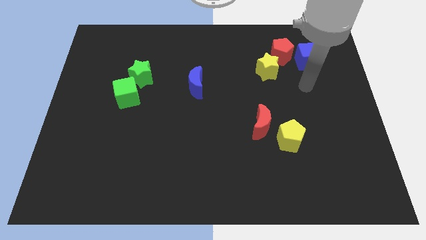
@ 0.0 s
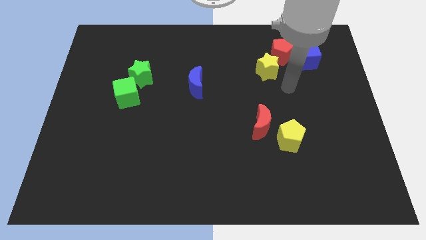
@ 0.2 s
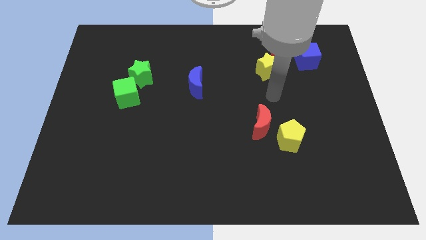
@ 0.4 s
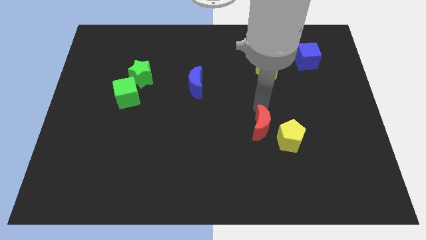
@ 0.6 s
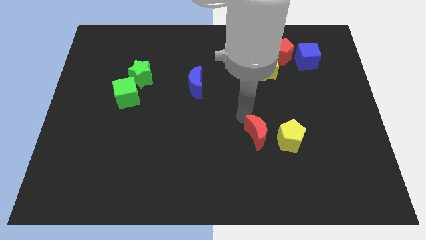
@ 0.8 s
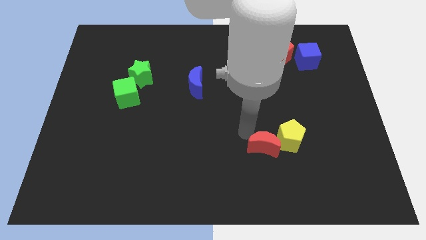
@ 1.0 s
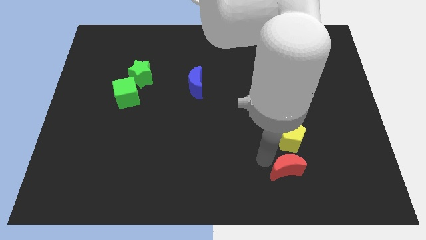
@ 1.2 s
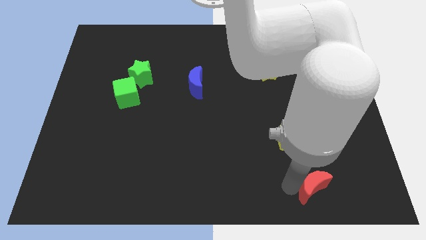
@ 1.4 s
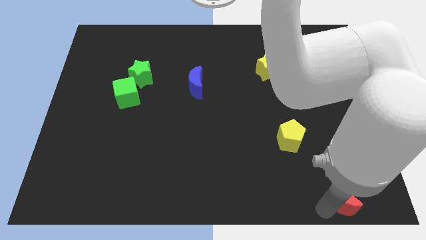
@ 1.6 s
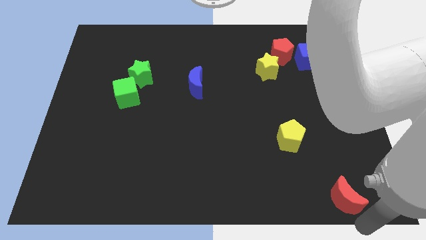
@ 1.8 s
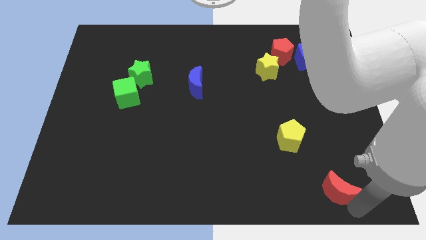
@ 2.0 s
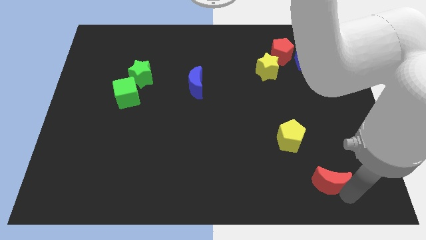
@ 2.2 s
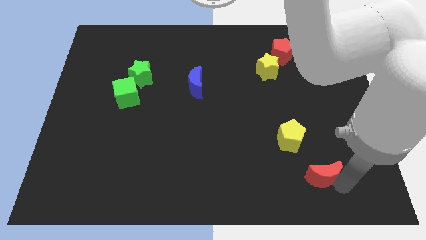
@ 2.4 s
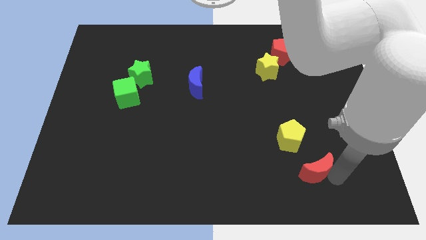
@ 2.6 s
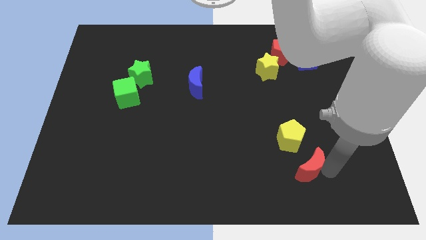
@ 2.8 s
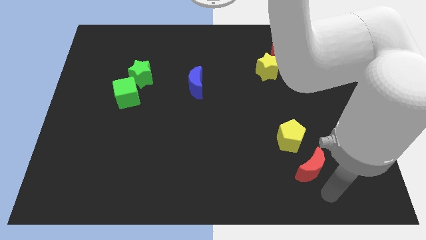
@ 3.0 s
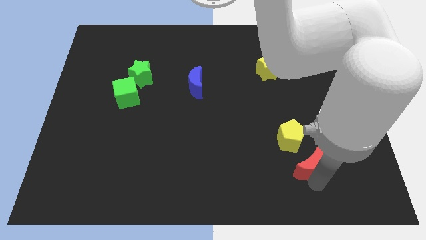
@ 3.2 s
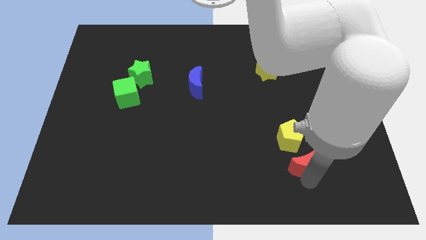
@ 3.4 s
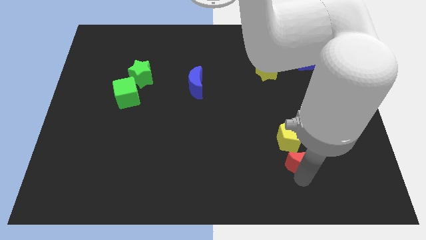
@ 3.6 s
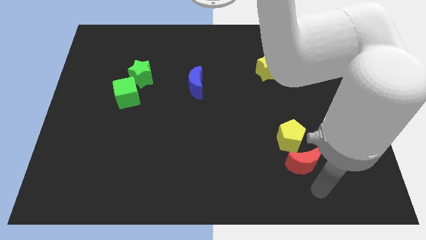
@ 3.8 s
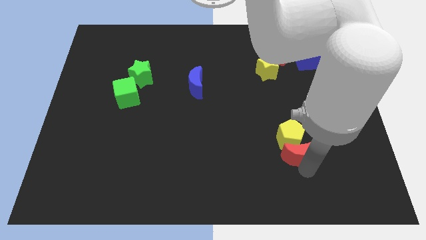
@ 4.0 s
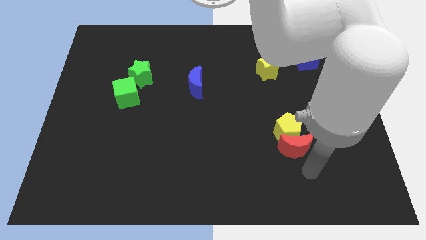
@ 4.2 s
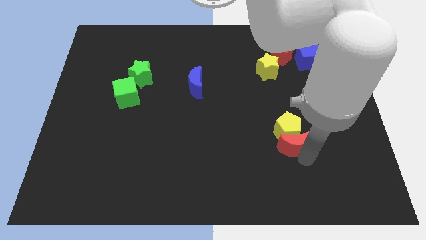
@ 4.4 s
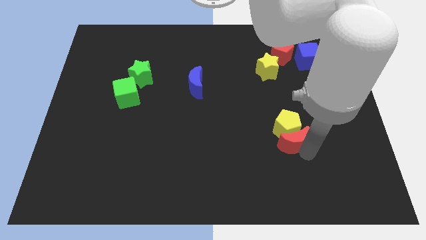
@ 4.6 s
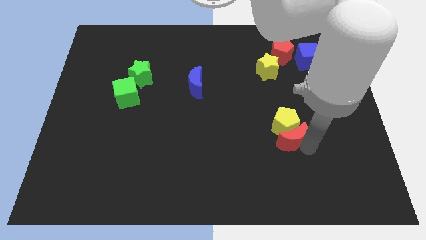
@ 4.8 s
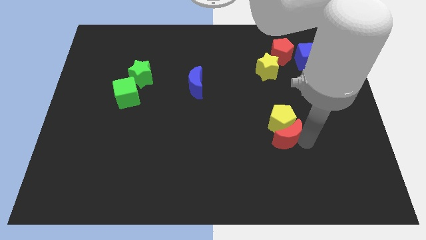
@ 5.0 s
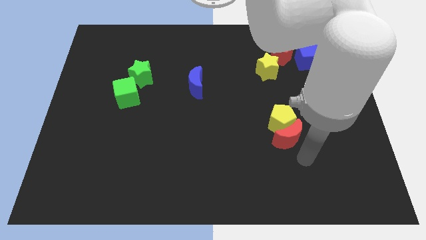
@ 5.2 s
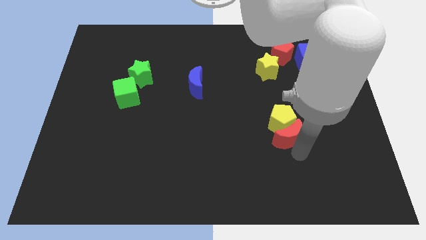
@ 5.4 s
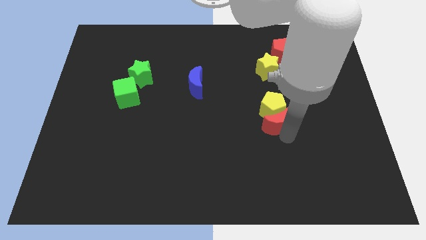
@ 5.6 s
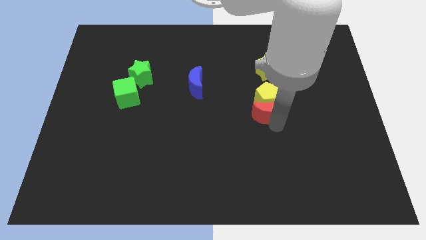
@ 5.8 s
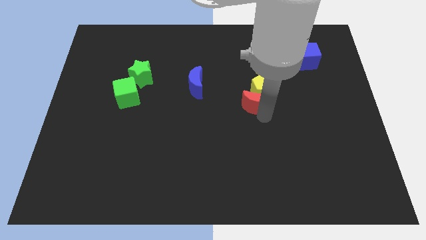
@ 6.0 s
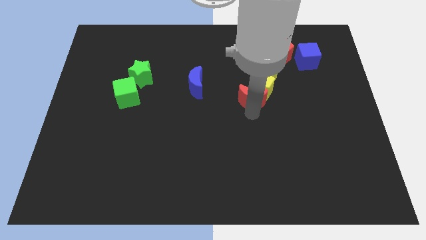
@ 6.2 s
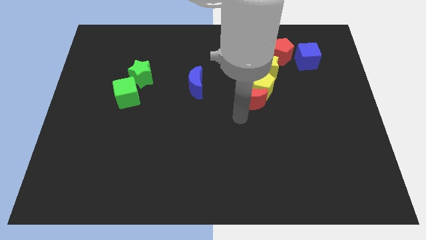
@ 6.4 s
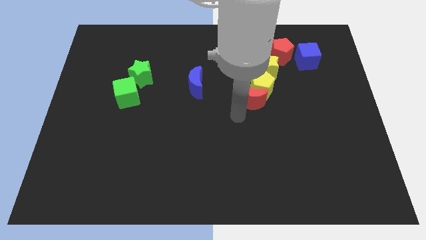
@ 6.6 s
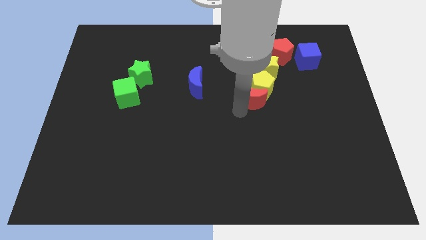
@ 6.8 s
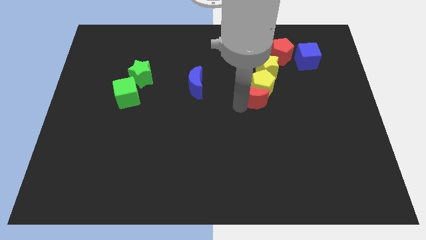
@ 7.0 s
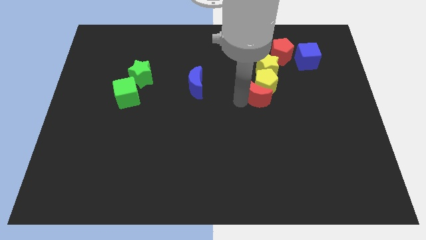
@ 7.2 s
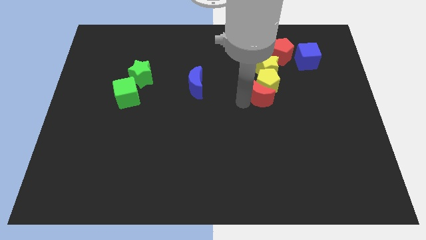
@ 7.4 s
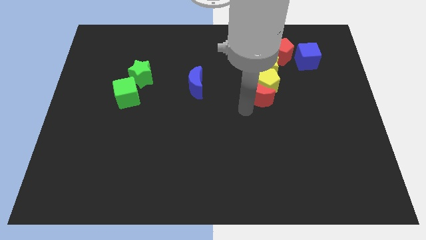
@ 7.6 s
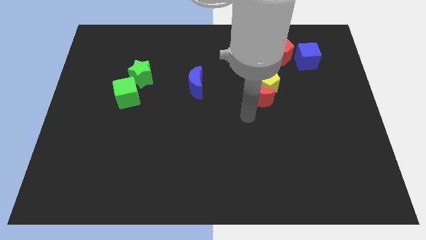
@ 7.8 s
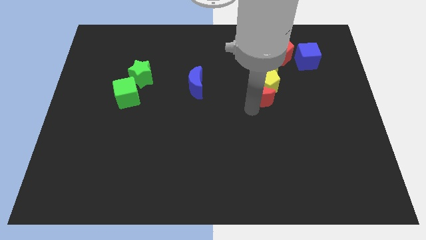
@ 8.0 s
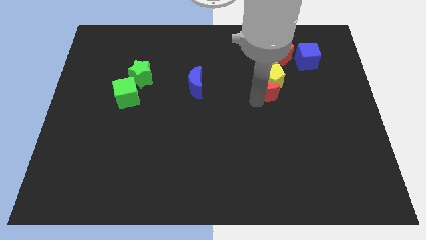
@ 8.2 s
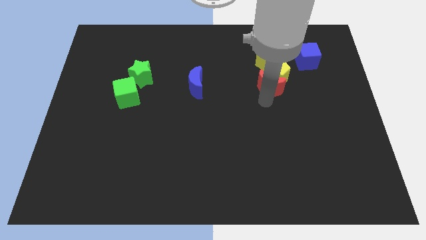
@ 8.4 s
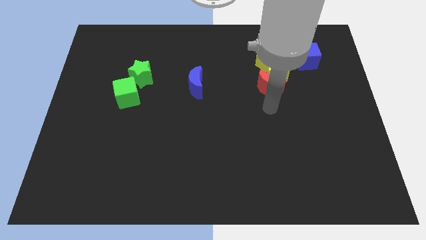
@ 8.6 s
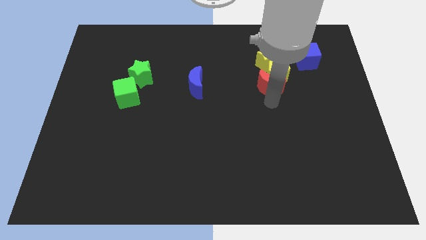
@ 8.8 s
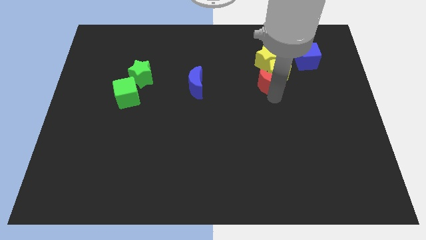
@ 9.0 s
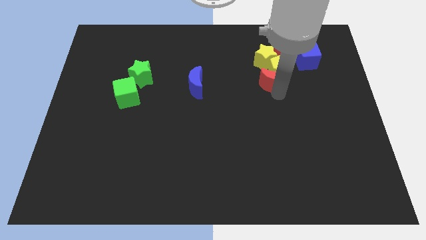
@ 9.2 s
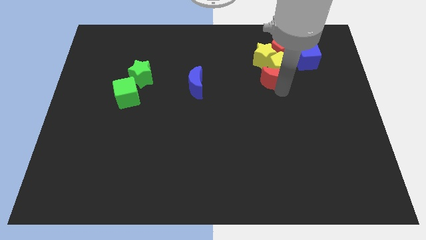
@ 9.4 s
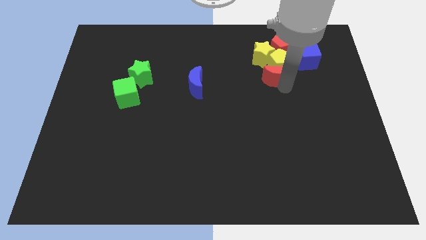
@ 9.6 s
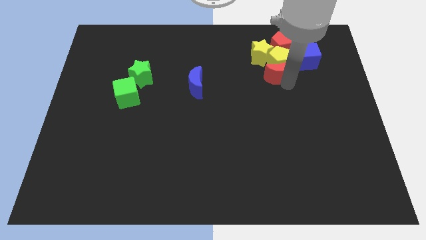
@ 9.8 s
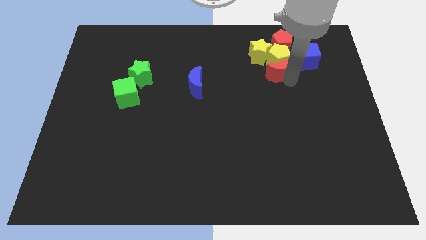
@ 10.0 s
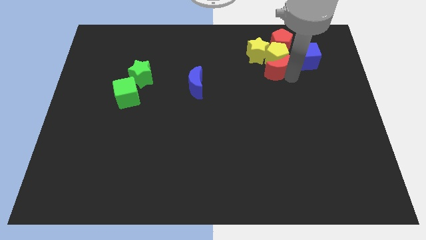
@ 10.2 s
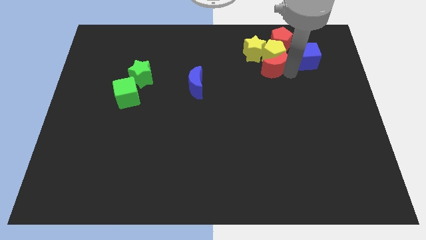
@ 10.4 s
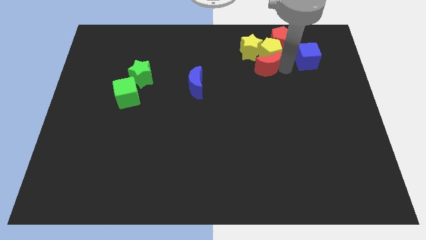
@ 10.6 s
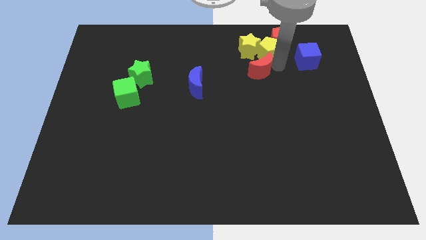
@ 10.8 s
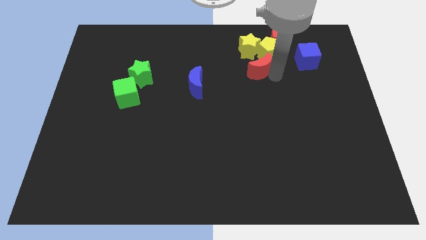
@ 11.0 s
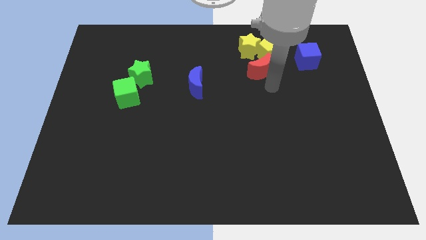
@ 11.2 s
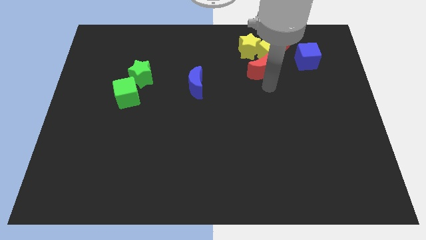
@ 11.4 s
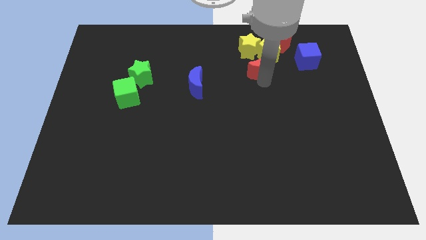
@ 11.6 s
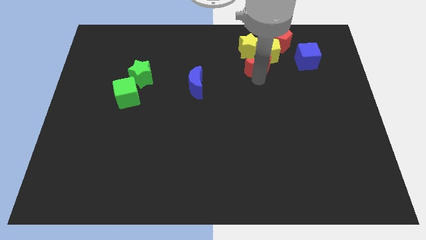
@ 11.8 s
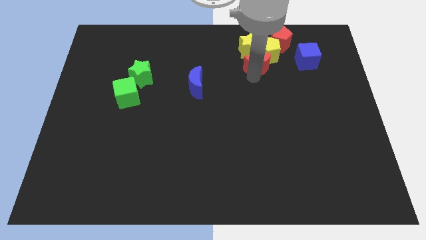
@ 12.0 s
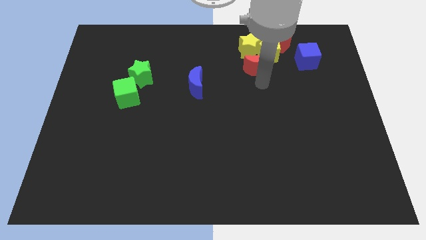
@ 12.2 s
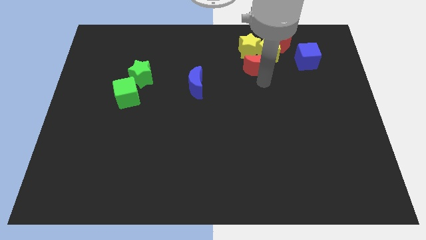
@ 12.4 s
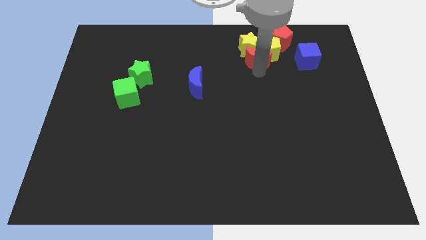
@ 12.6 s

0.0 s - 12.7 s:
put the red moon to the yellow star

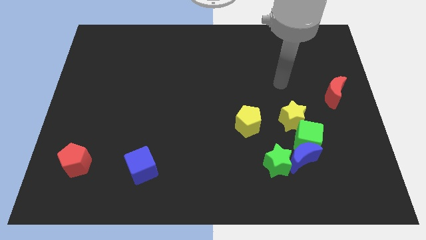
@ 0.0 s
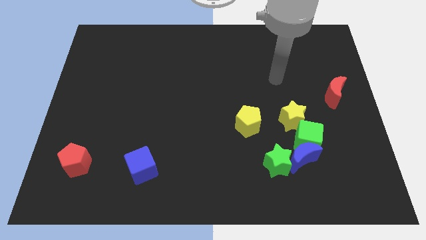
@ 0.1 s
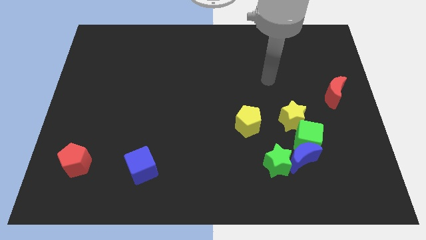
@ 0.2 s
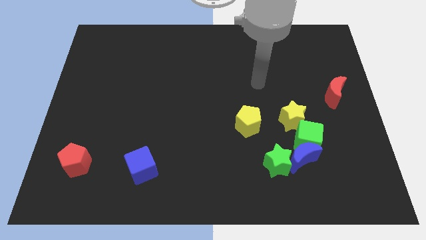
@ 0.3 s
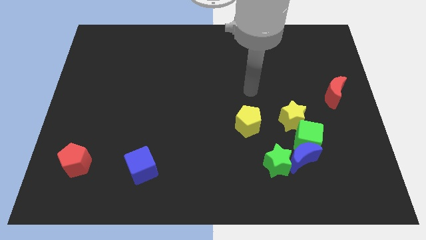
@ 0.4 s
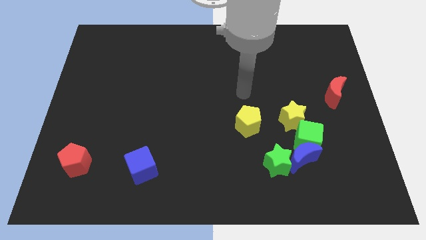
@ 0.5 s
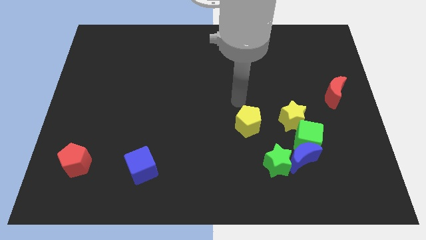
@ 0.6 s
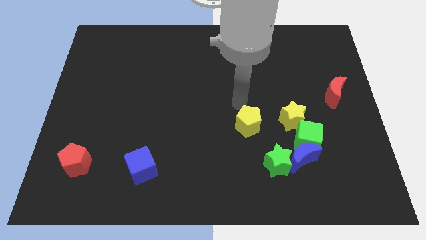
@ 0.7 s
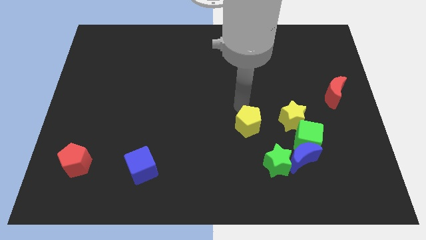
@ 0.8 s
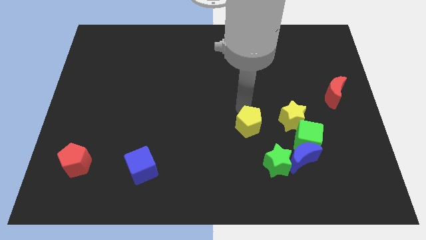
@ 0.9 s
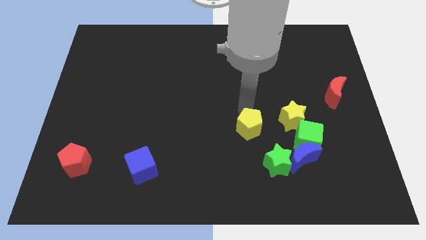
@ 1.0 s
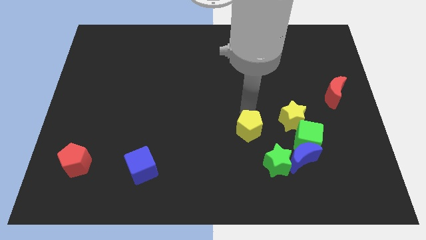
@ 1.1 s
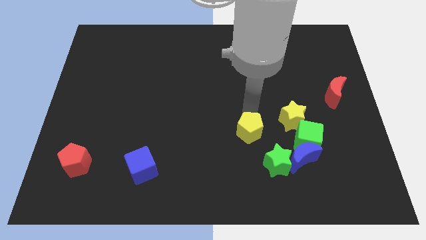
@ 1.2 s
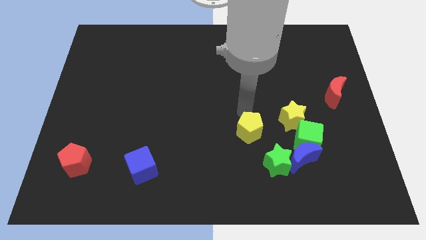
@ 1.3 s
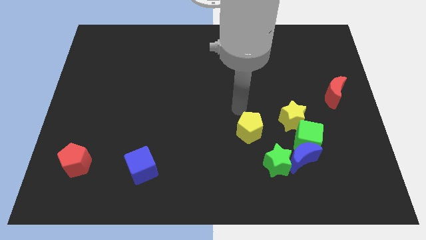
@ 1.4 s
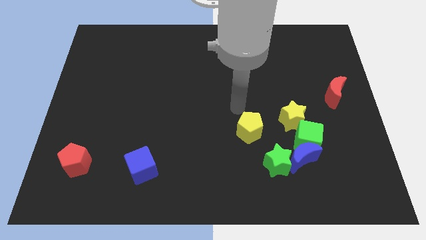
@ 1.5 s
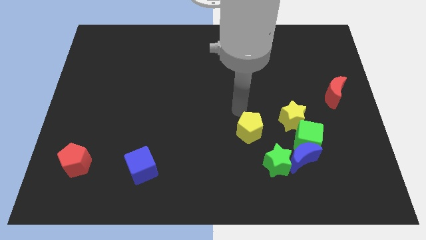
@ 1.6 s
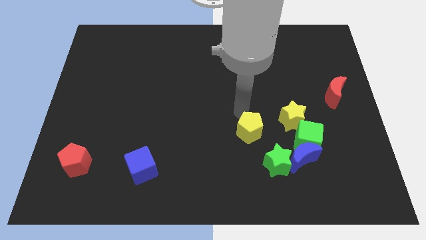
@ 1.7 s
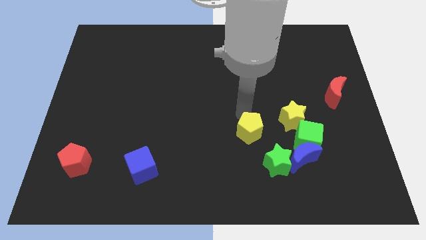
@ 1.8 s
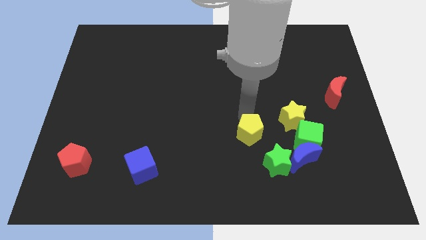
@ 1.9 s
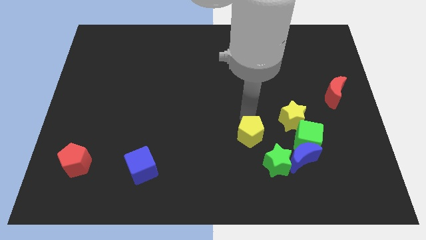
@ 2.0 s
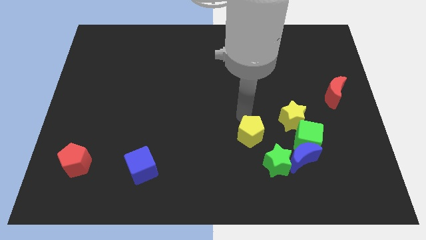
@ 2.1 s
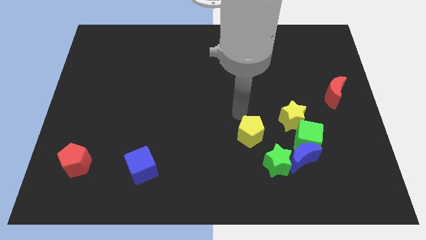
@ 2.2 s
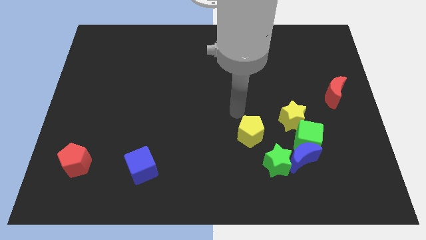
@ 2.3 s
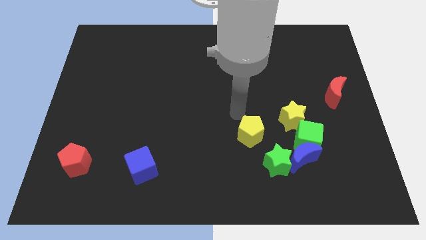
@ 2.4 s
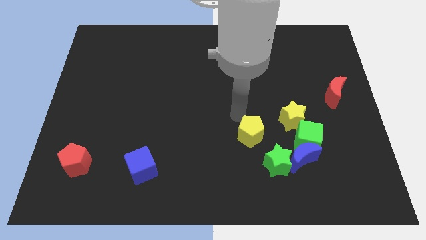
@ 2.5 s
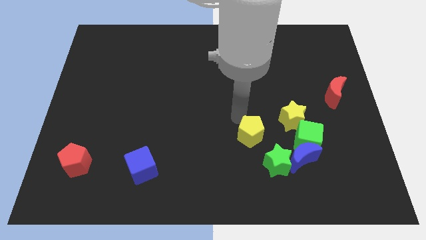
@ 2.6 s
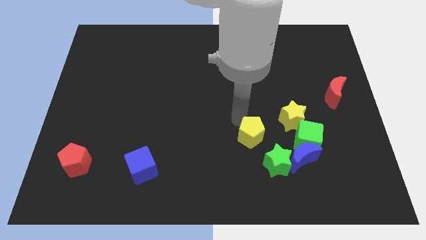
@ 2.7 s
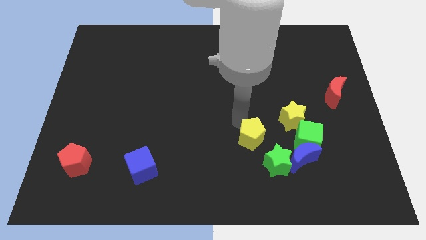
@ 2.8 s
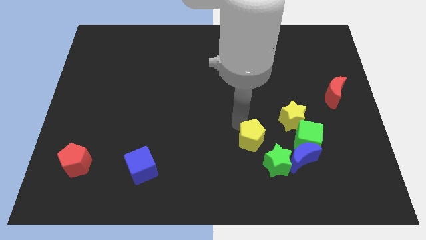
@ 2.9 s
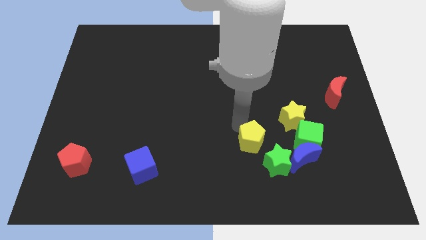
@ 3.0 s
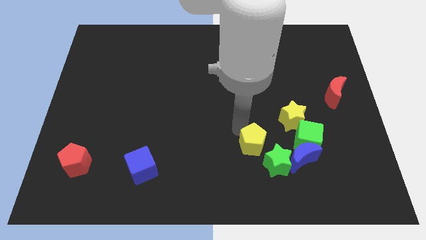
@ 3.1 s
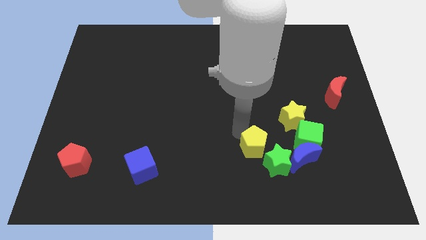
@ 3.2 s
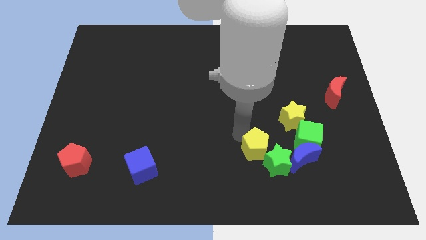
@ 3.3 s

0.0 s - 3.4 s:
slide the yellow pentagon towards the green star
